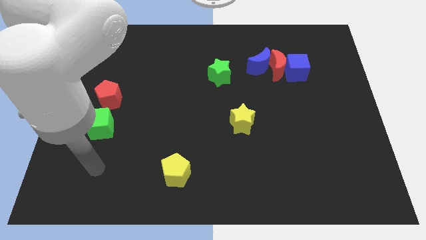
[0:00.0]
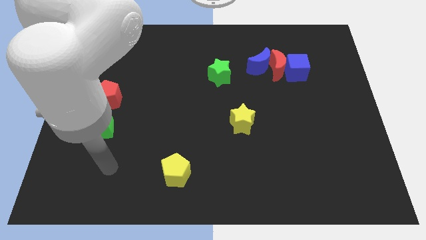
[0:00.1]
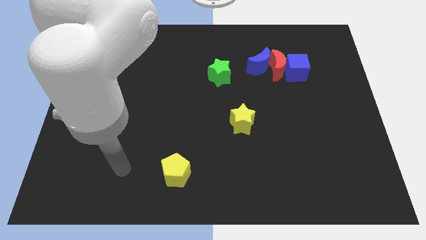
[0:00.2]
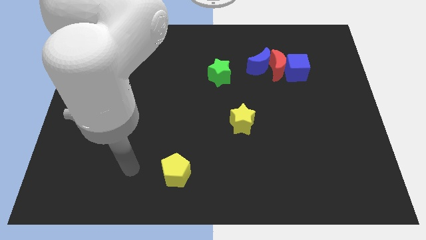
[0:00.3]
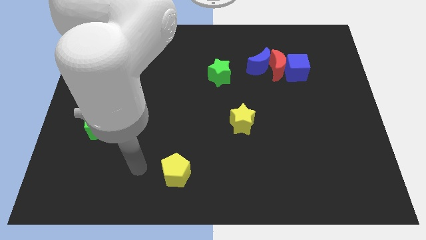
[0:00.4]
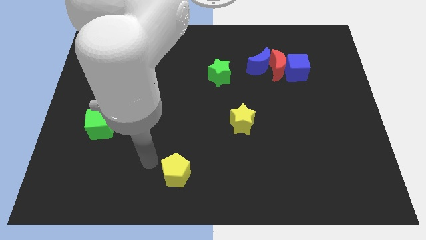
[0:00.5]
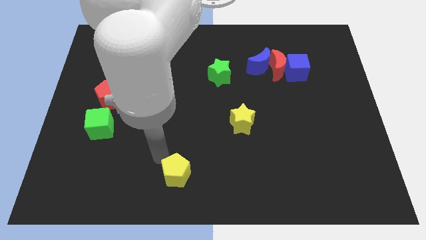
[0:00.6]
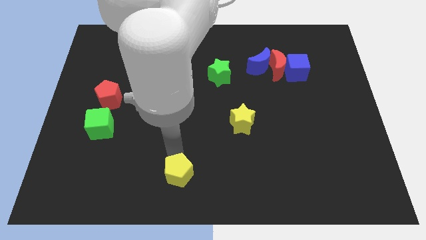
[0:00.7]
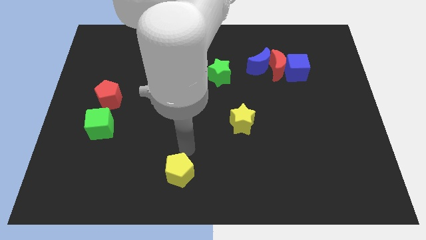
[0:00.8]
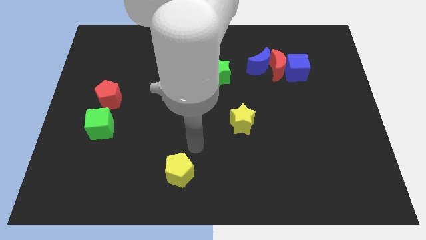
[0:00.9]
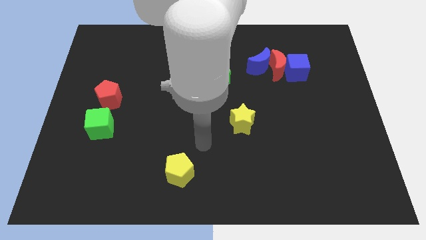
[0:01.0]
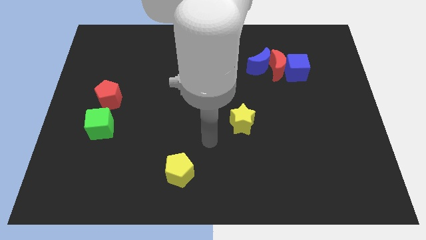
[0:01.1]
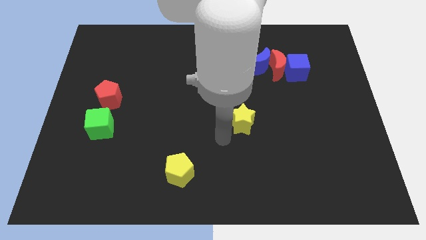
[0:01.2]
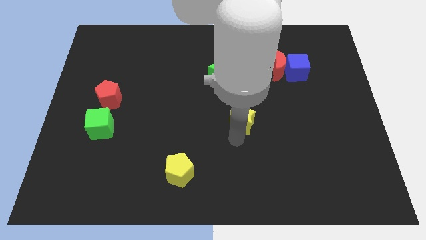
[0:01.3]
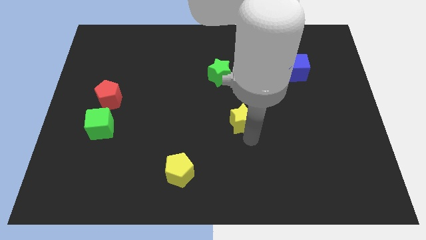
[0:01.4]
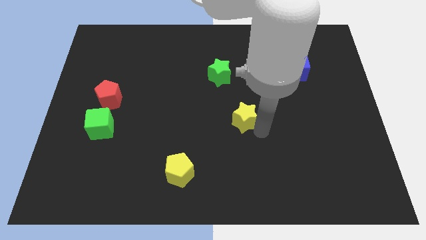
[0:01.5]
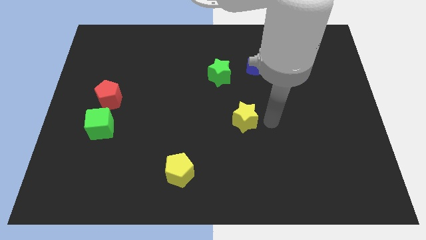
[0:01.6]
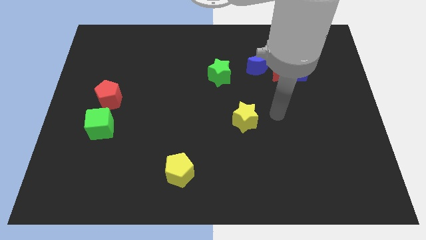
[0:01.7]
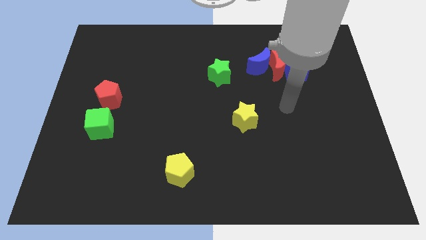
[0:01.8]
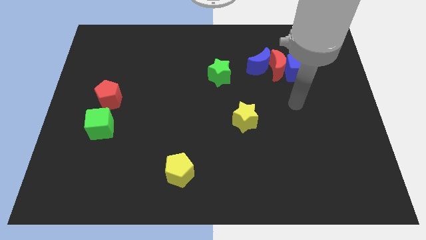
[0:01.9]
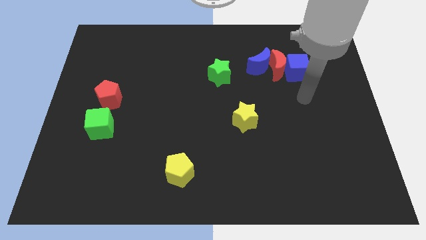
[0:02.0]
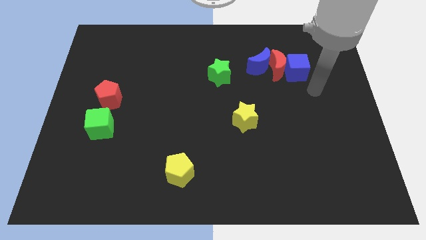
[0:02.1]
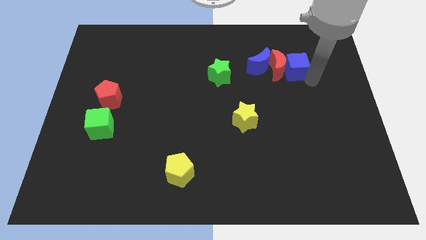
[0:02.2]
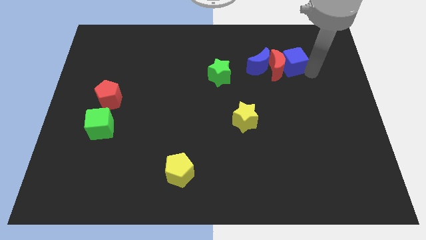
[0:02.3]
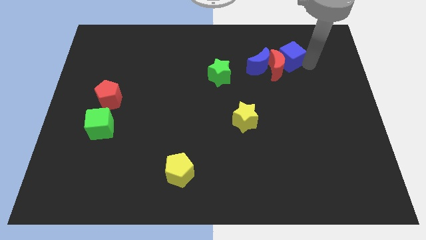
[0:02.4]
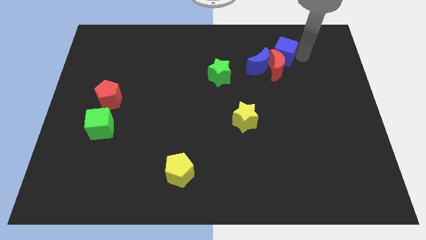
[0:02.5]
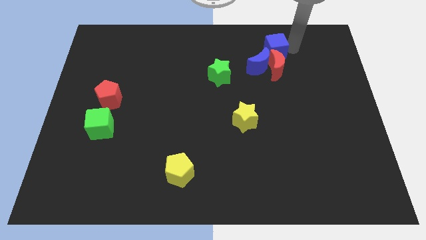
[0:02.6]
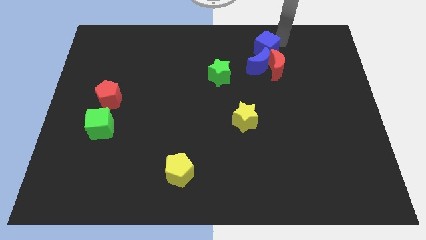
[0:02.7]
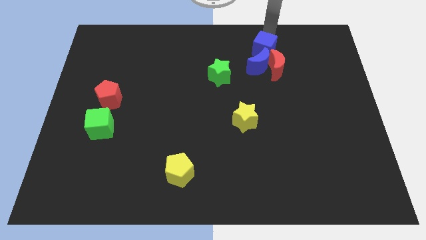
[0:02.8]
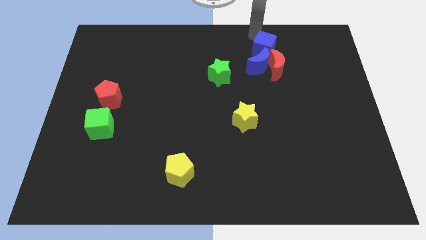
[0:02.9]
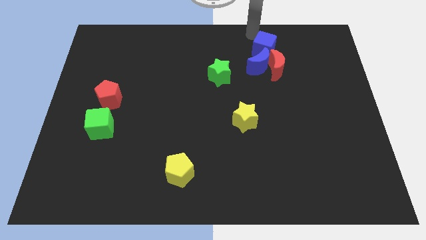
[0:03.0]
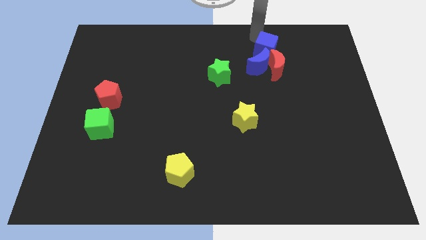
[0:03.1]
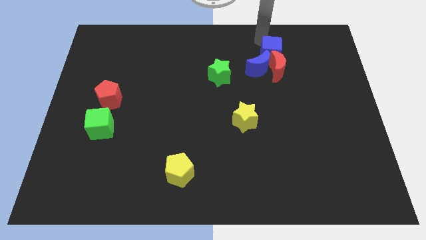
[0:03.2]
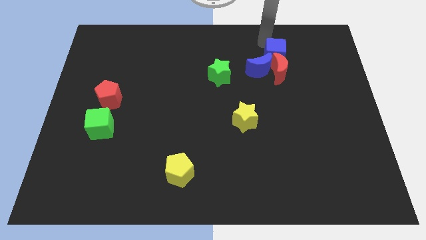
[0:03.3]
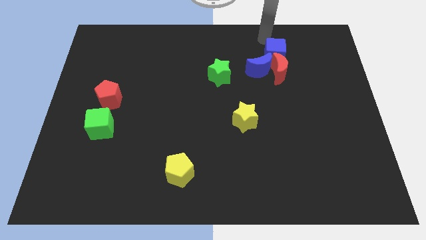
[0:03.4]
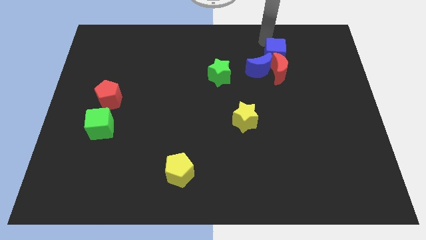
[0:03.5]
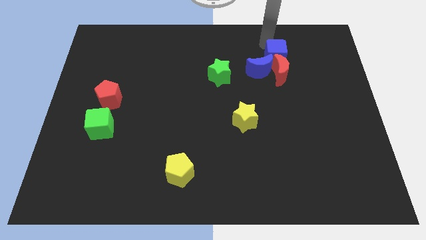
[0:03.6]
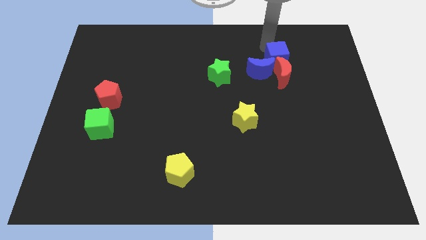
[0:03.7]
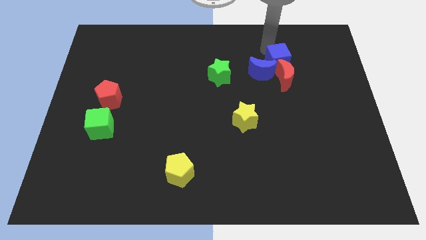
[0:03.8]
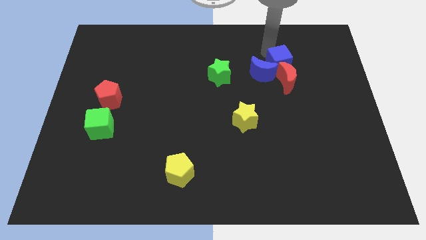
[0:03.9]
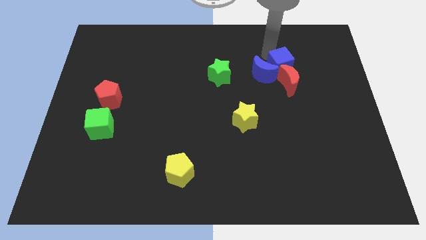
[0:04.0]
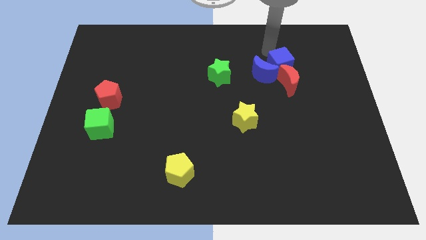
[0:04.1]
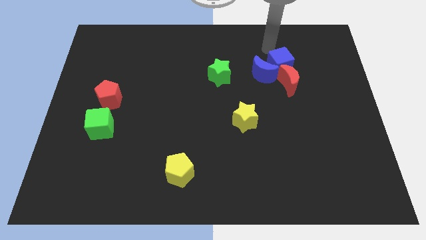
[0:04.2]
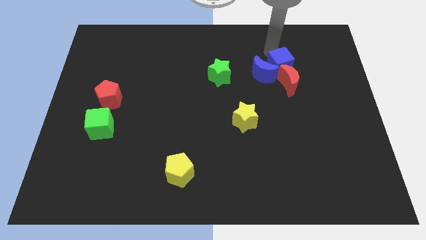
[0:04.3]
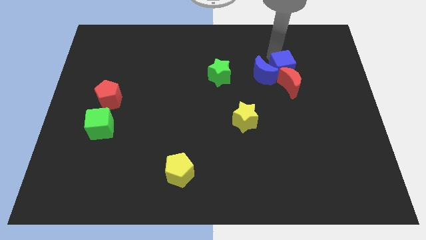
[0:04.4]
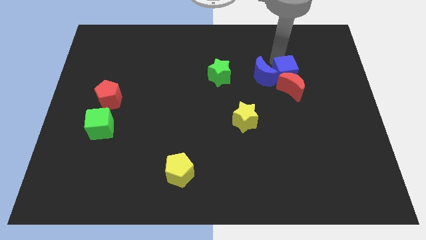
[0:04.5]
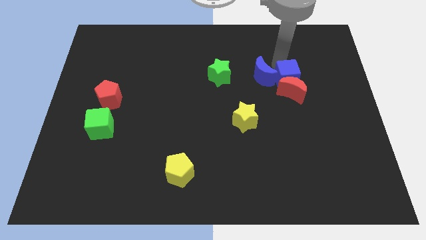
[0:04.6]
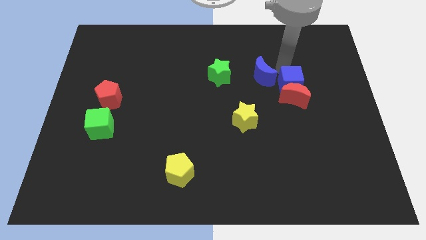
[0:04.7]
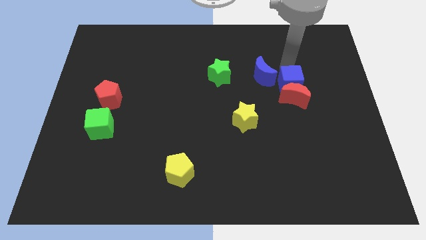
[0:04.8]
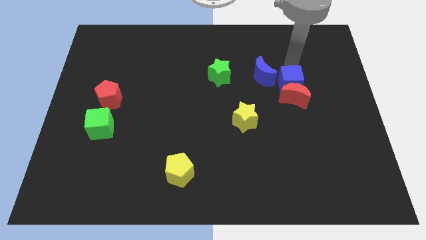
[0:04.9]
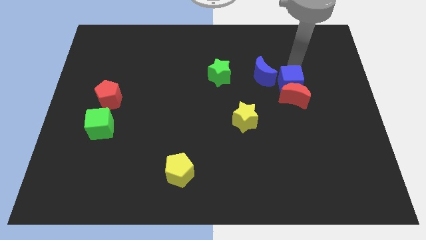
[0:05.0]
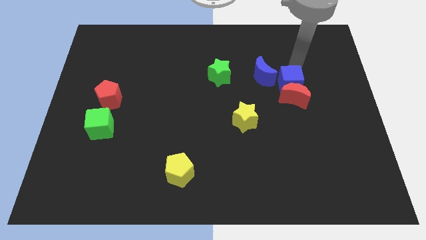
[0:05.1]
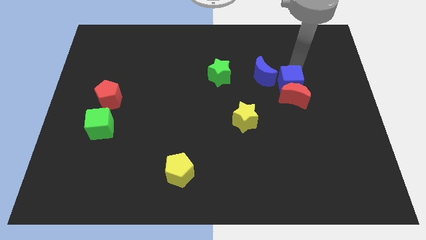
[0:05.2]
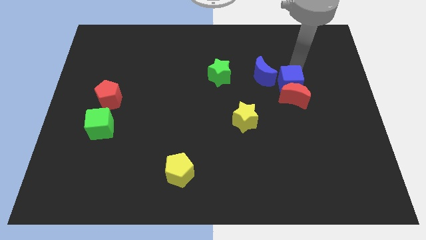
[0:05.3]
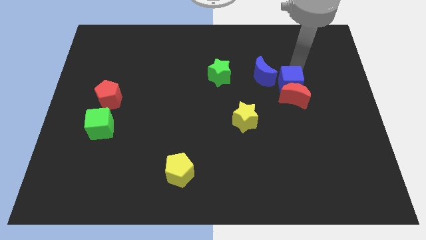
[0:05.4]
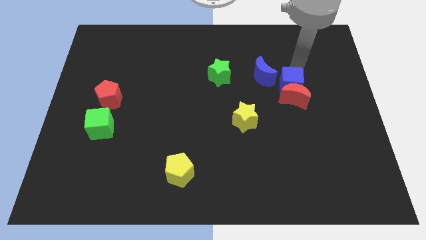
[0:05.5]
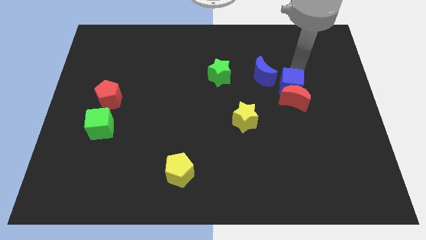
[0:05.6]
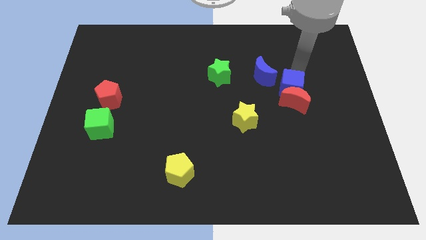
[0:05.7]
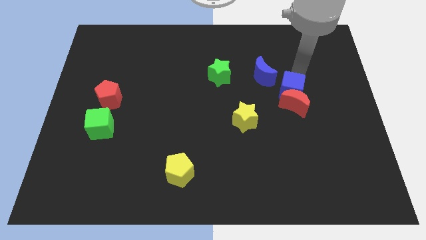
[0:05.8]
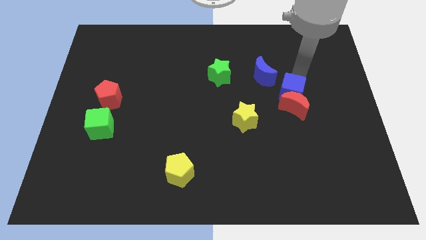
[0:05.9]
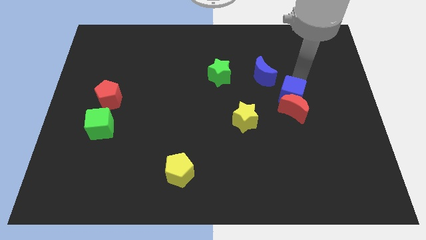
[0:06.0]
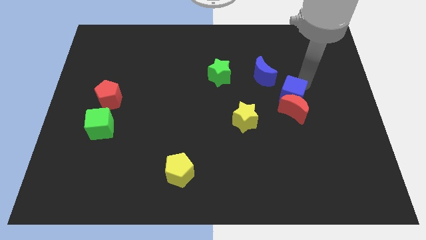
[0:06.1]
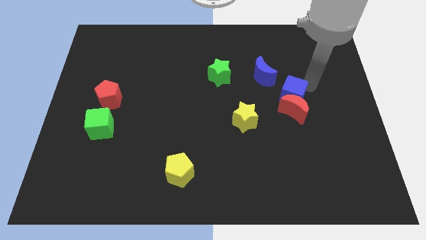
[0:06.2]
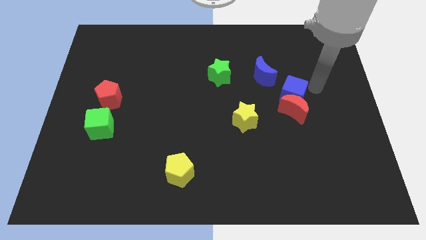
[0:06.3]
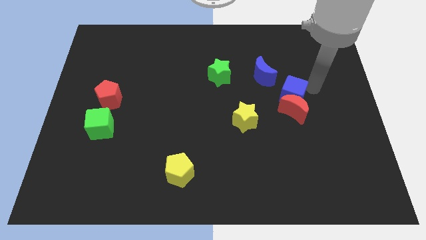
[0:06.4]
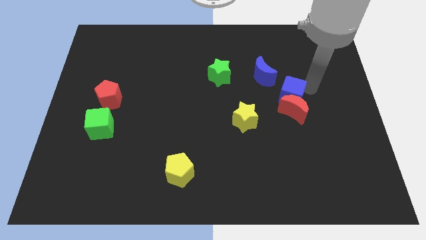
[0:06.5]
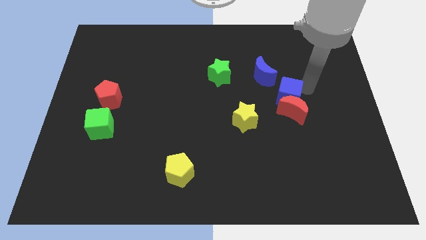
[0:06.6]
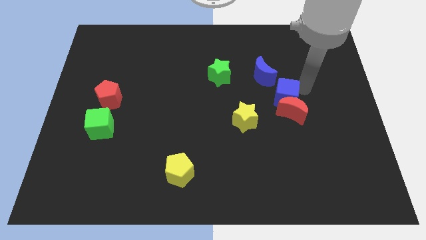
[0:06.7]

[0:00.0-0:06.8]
push the blue cube to the top right side of the yellow star
